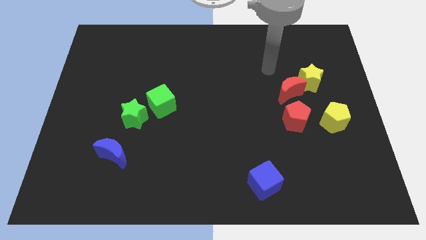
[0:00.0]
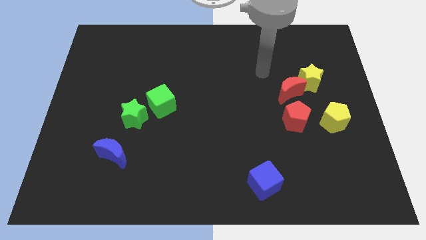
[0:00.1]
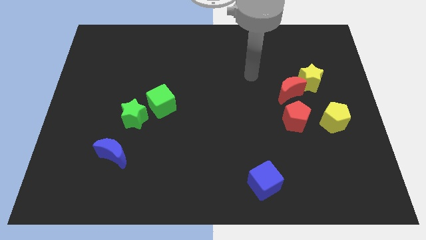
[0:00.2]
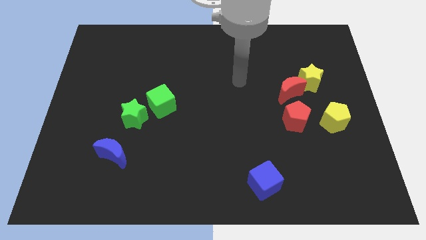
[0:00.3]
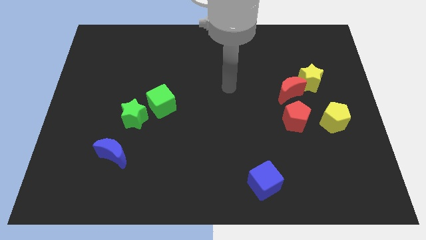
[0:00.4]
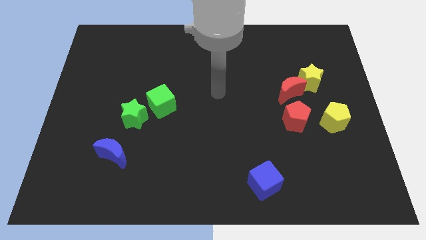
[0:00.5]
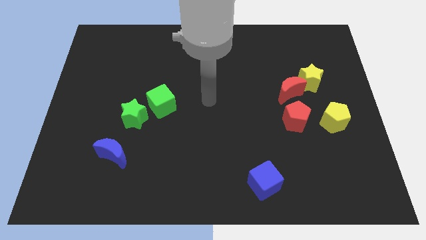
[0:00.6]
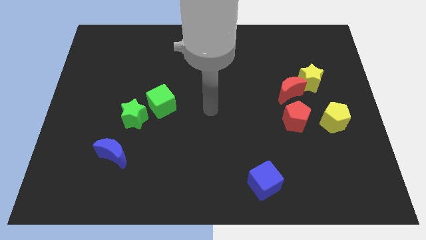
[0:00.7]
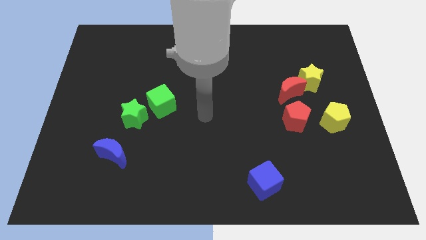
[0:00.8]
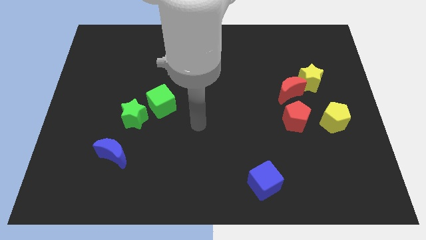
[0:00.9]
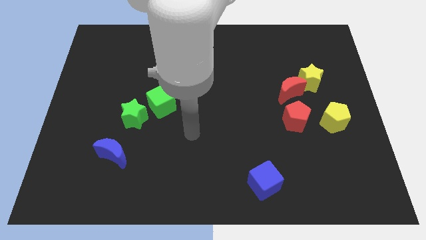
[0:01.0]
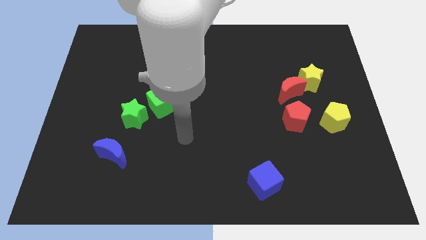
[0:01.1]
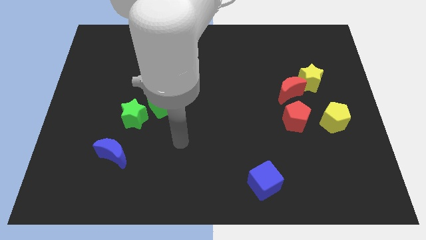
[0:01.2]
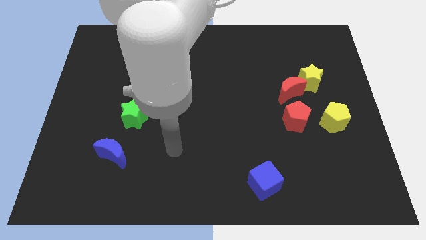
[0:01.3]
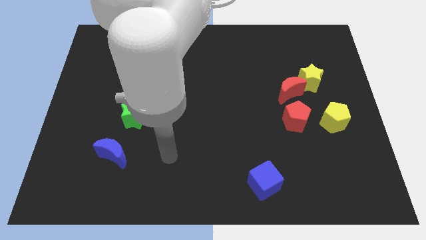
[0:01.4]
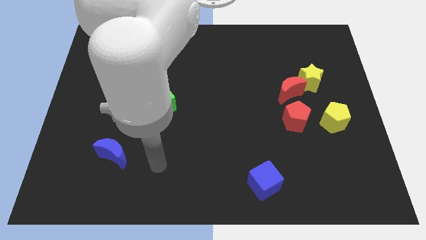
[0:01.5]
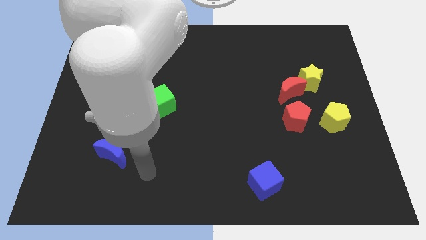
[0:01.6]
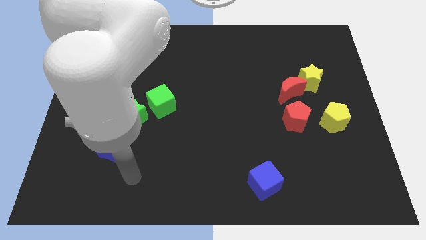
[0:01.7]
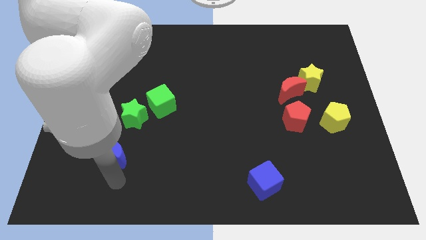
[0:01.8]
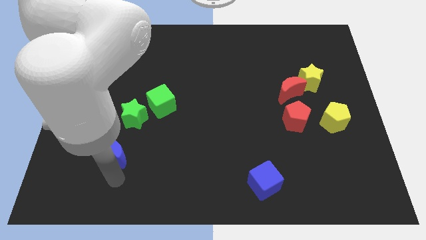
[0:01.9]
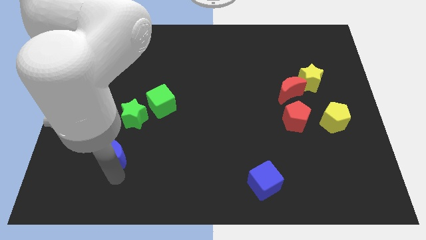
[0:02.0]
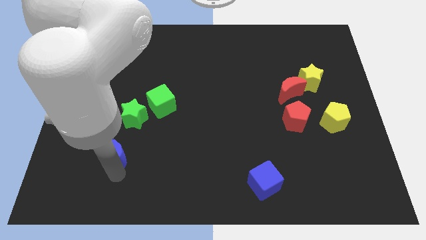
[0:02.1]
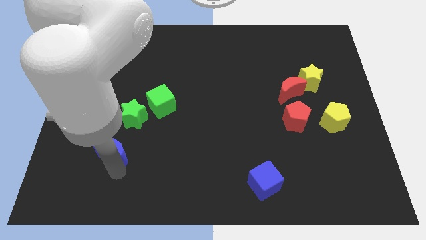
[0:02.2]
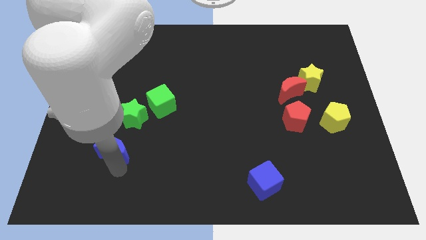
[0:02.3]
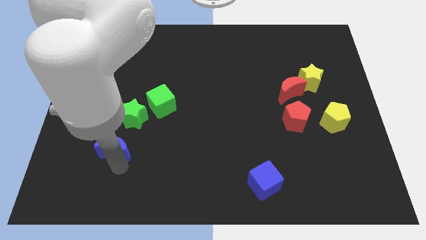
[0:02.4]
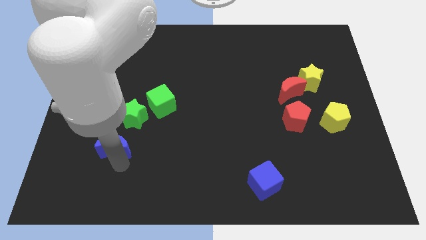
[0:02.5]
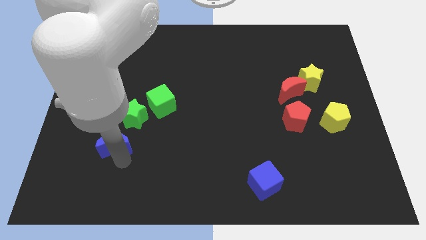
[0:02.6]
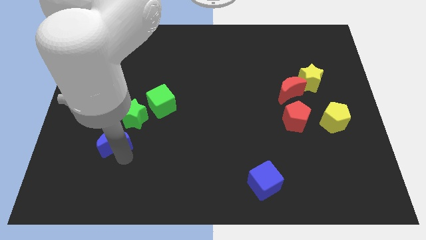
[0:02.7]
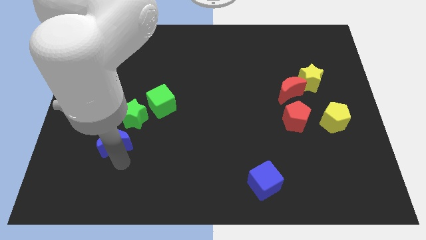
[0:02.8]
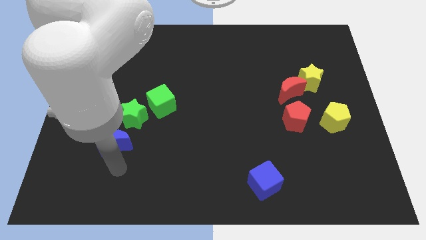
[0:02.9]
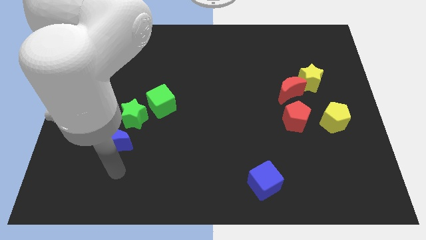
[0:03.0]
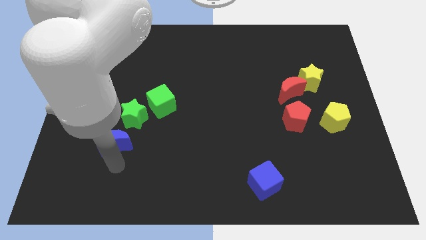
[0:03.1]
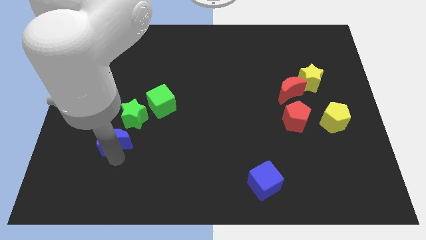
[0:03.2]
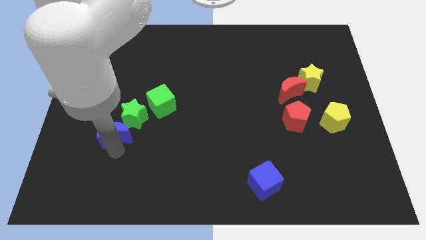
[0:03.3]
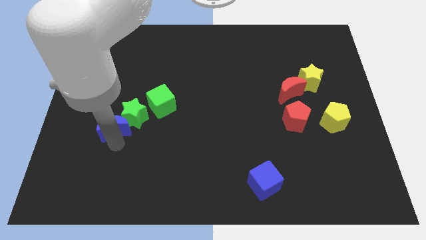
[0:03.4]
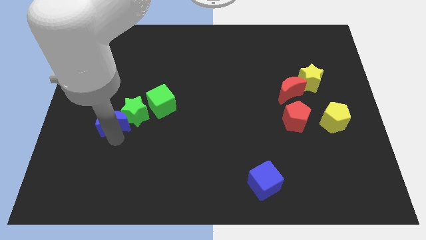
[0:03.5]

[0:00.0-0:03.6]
slide the blue moon up a little

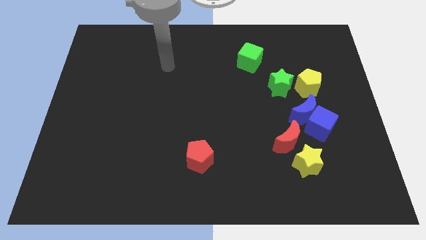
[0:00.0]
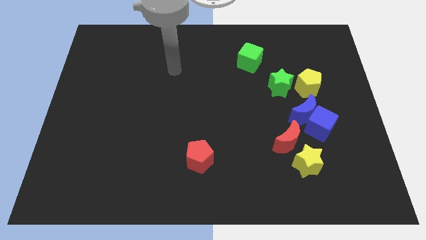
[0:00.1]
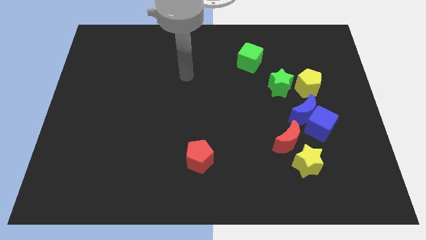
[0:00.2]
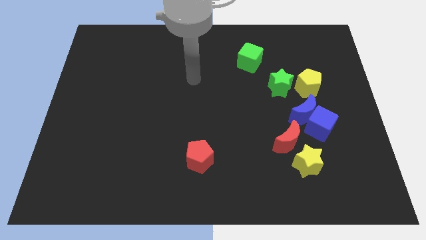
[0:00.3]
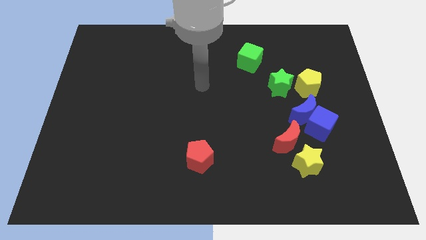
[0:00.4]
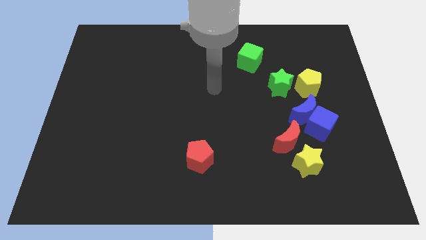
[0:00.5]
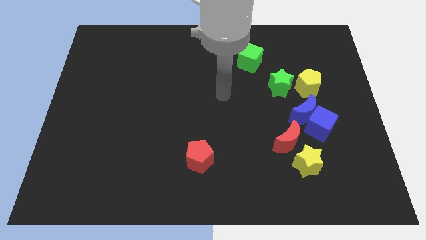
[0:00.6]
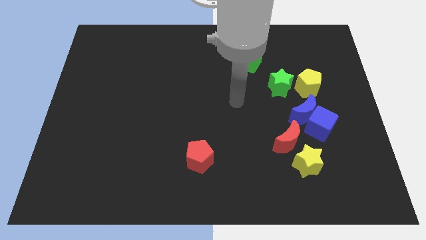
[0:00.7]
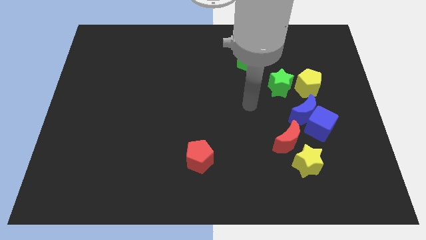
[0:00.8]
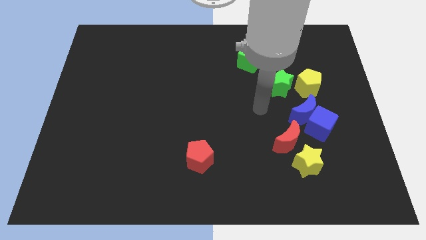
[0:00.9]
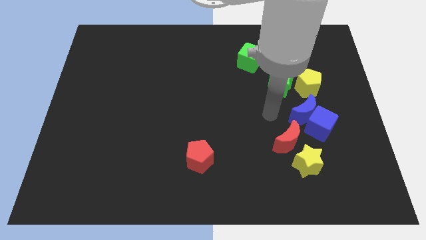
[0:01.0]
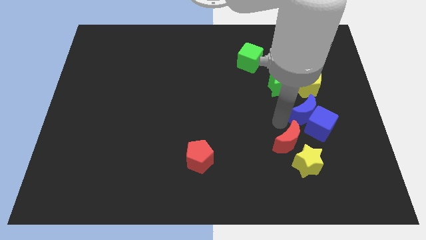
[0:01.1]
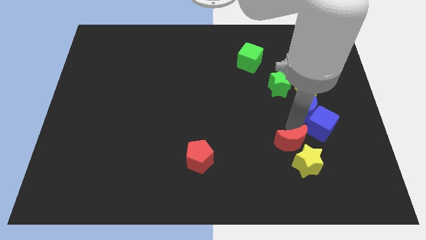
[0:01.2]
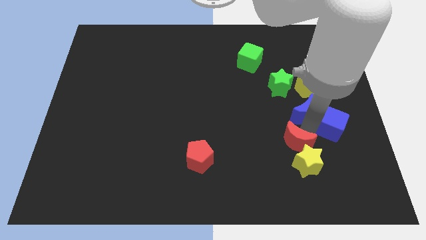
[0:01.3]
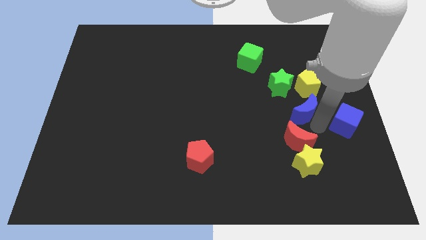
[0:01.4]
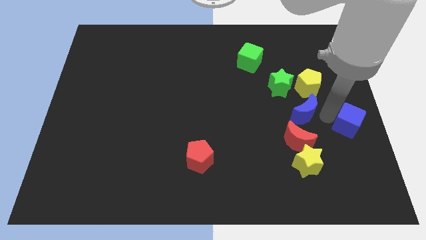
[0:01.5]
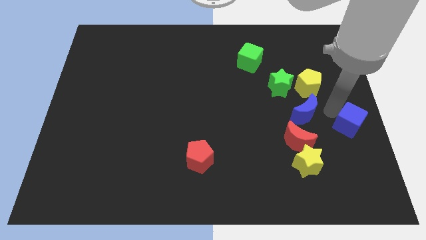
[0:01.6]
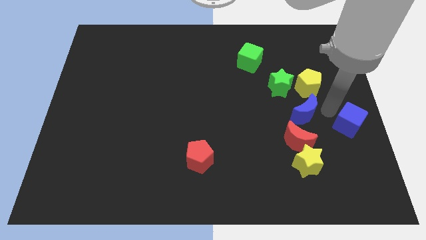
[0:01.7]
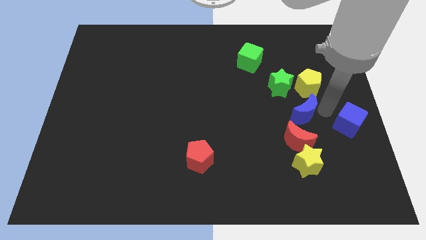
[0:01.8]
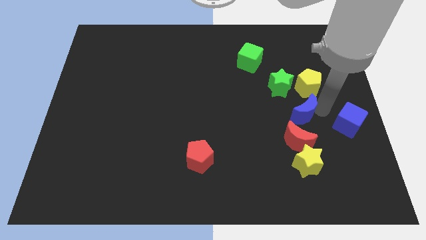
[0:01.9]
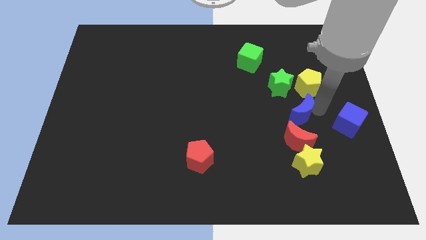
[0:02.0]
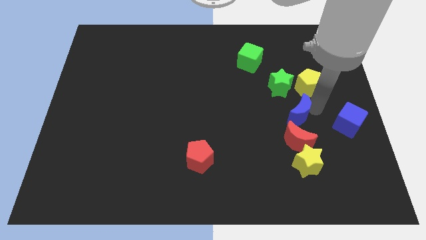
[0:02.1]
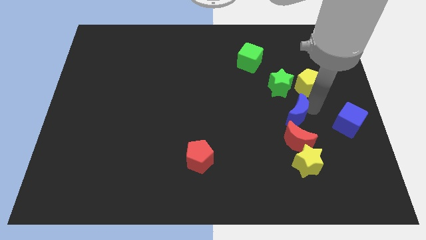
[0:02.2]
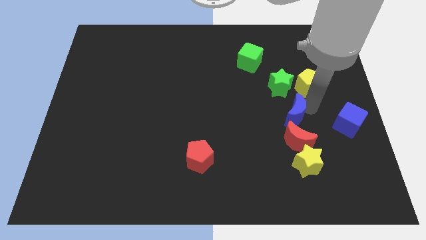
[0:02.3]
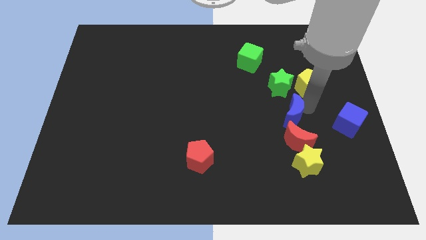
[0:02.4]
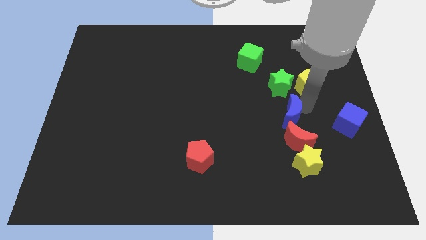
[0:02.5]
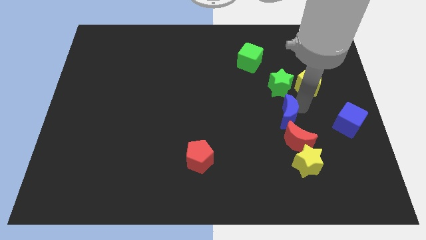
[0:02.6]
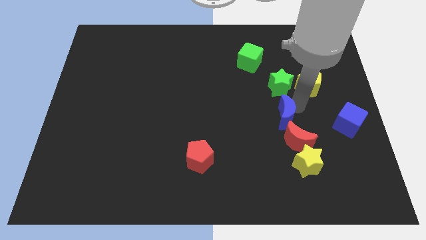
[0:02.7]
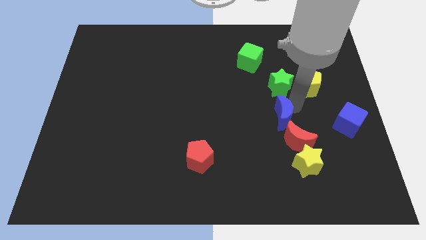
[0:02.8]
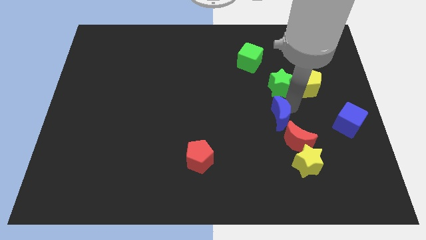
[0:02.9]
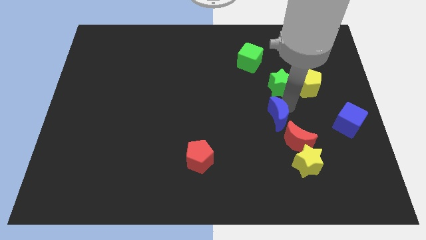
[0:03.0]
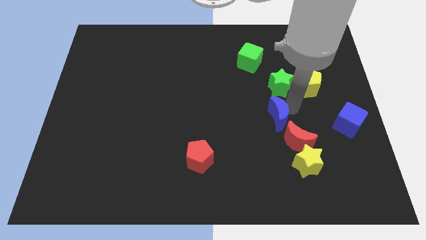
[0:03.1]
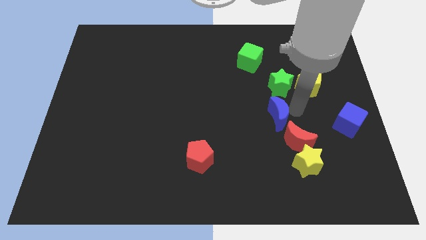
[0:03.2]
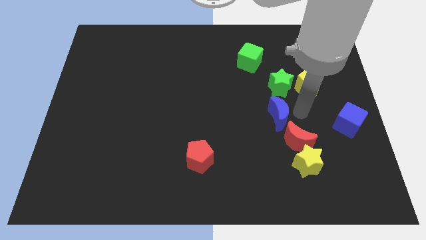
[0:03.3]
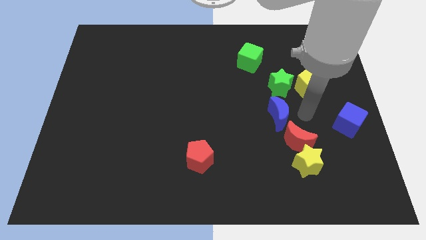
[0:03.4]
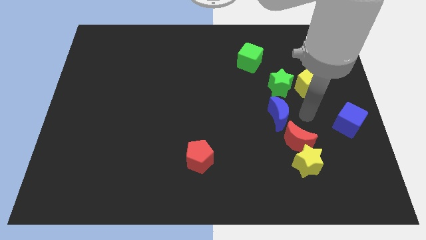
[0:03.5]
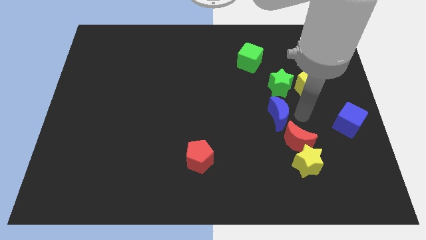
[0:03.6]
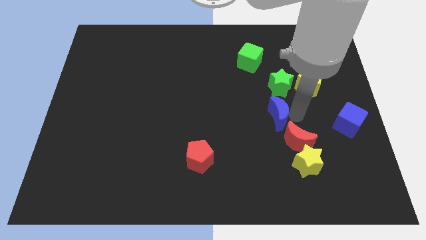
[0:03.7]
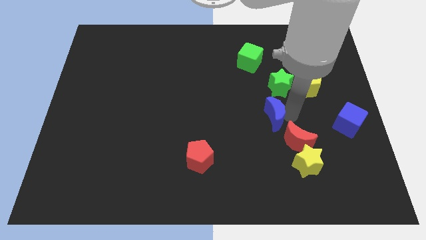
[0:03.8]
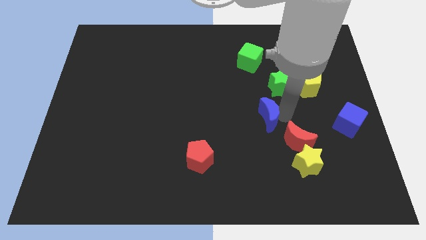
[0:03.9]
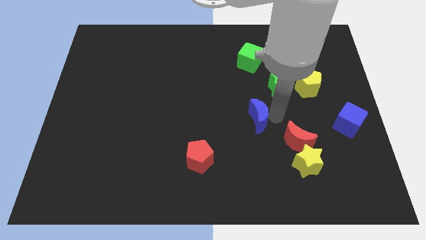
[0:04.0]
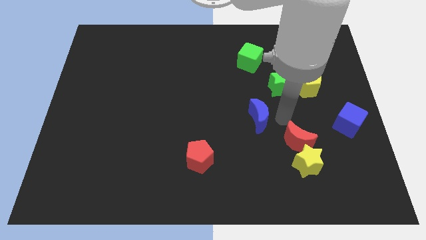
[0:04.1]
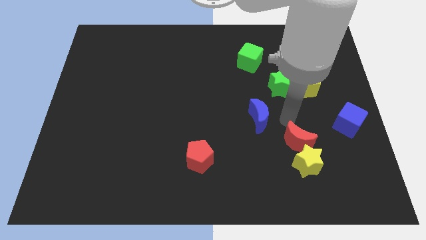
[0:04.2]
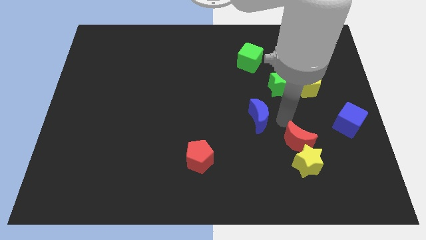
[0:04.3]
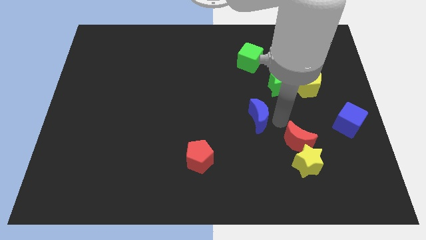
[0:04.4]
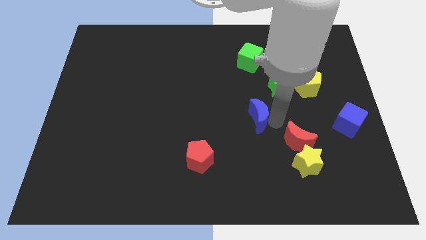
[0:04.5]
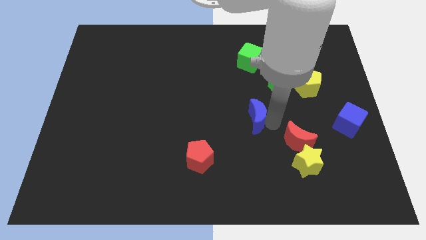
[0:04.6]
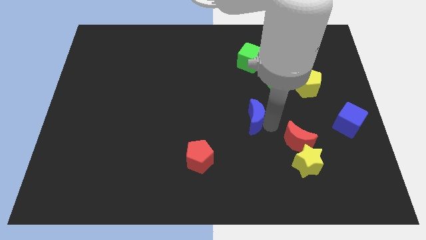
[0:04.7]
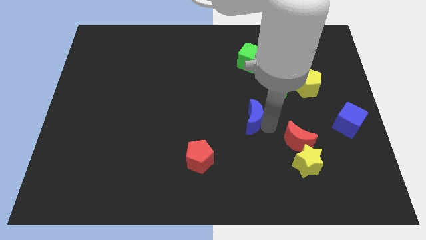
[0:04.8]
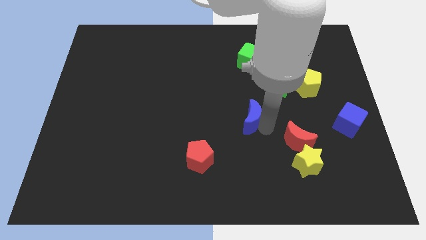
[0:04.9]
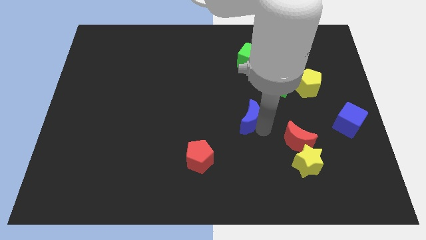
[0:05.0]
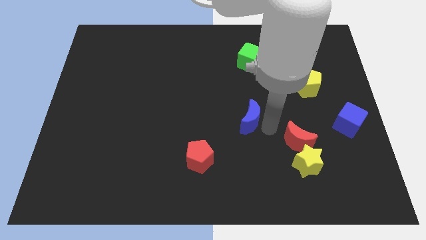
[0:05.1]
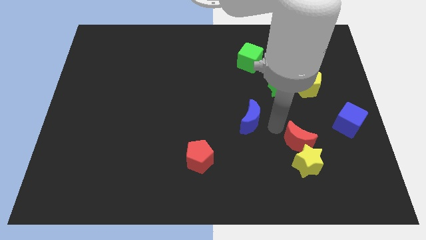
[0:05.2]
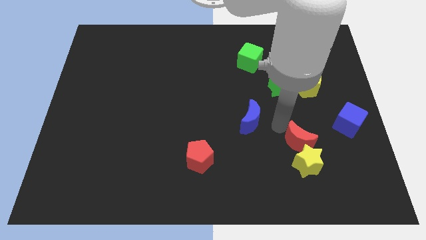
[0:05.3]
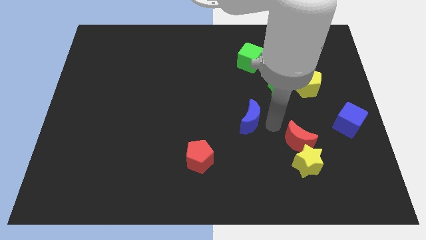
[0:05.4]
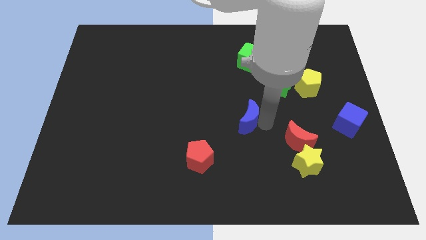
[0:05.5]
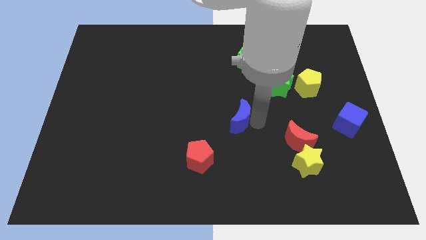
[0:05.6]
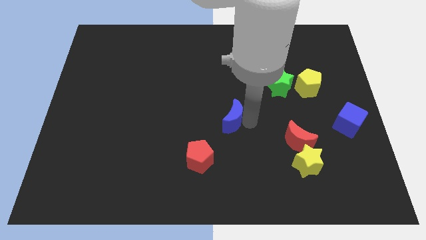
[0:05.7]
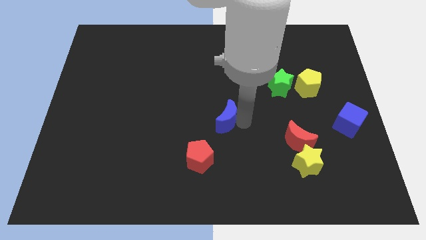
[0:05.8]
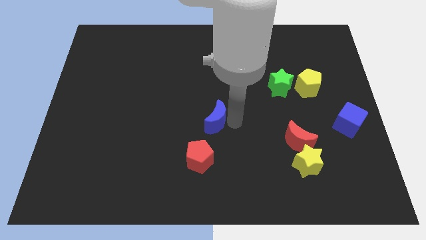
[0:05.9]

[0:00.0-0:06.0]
slide the blue moon to the left
